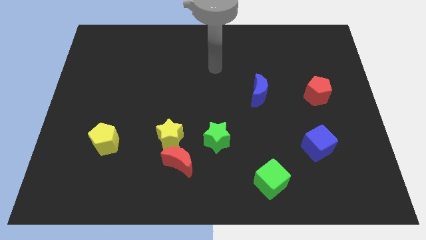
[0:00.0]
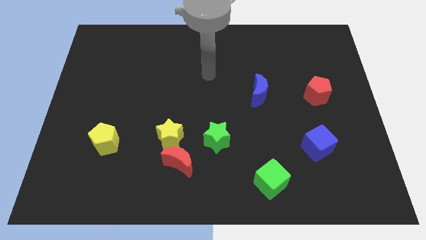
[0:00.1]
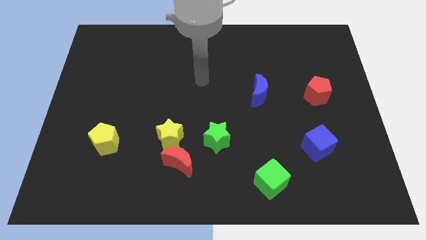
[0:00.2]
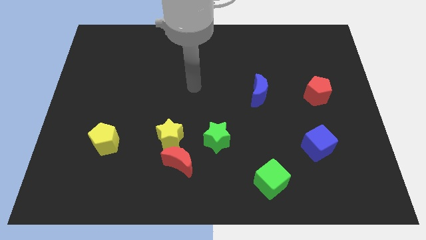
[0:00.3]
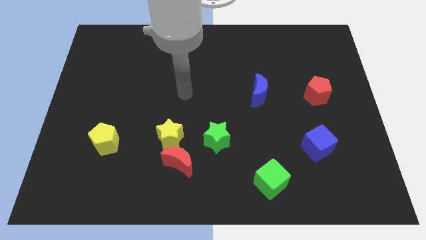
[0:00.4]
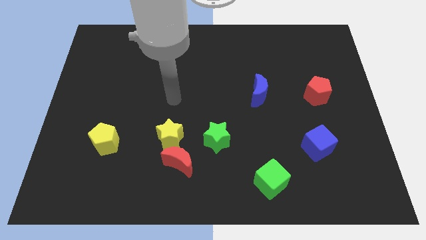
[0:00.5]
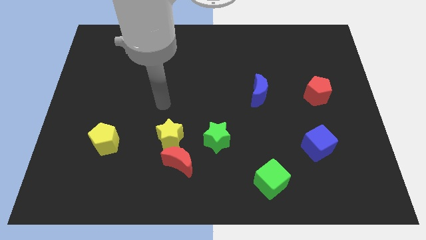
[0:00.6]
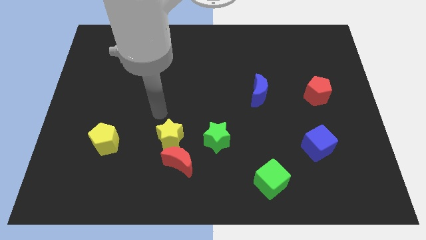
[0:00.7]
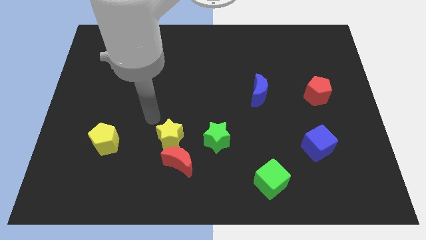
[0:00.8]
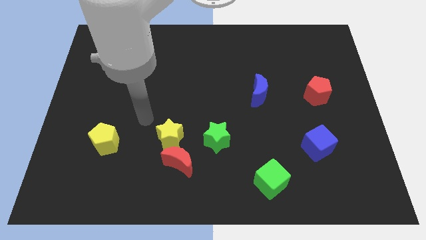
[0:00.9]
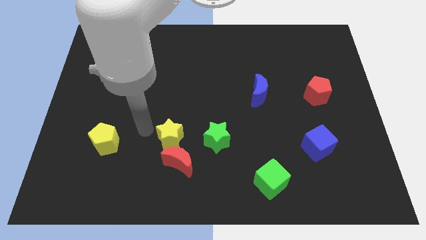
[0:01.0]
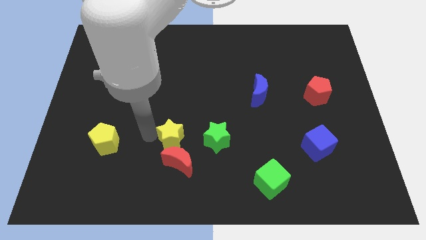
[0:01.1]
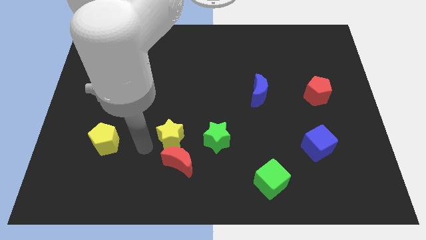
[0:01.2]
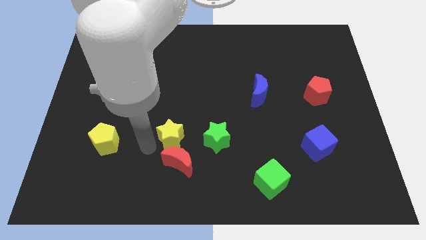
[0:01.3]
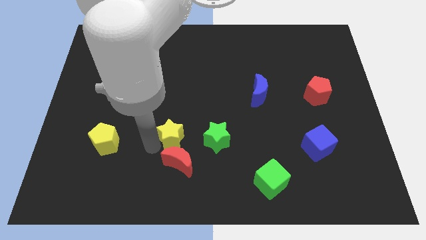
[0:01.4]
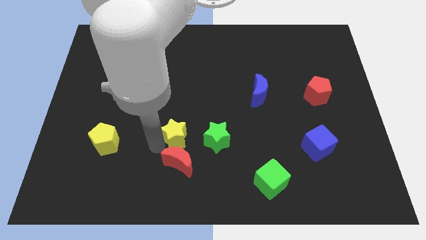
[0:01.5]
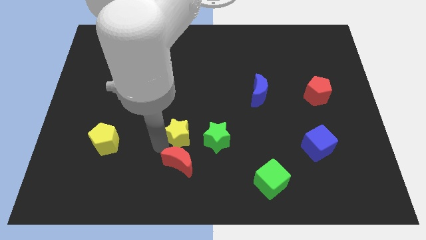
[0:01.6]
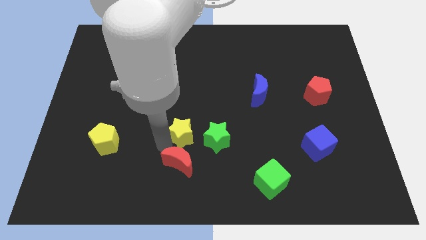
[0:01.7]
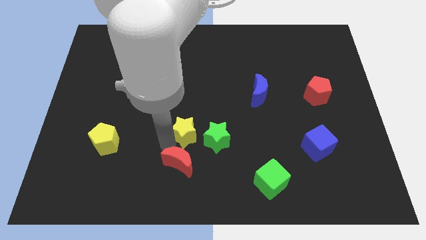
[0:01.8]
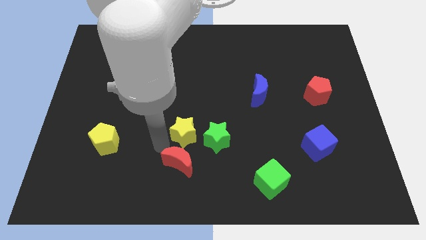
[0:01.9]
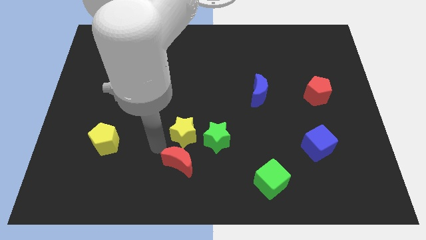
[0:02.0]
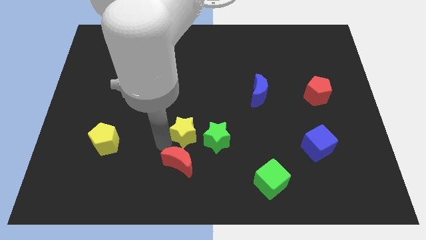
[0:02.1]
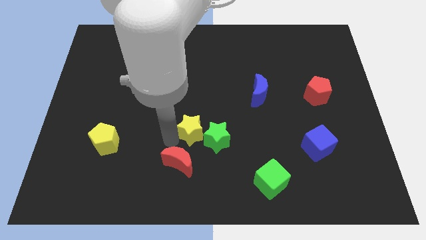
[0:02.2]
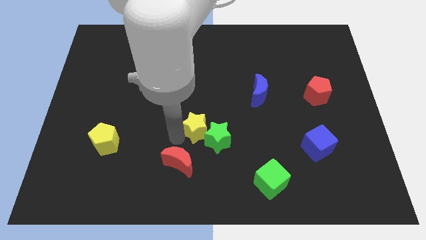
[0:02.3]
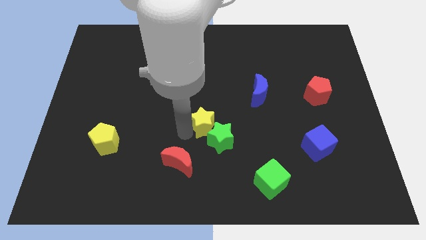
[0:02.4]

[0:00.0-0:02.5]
move the yellow star a little right

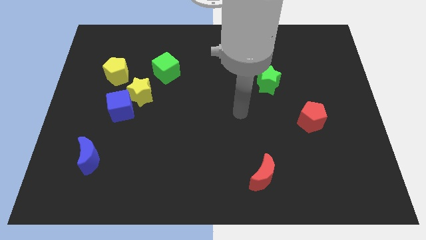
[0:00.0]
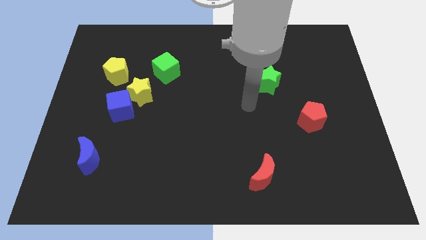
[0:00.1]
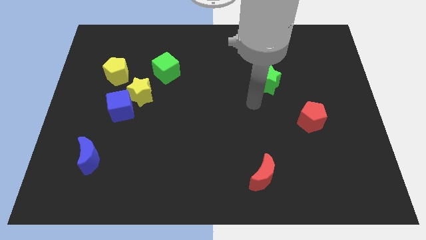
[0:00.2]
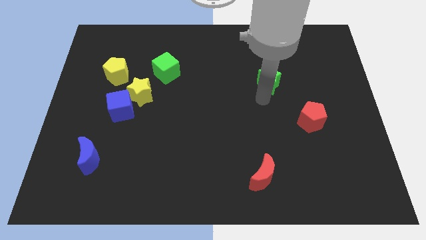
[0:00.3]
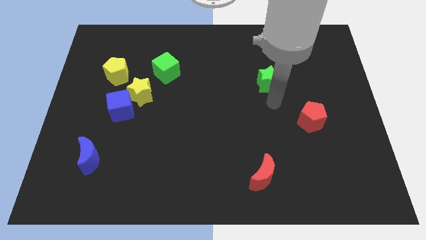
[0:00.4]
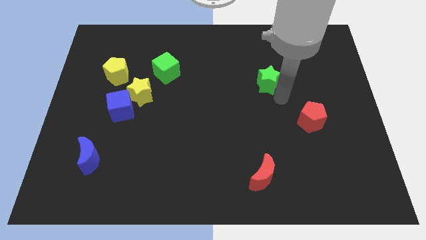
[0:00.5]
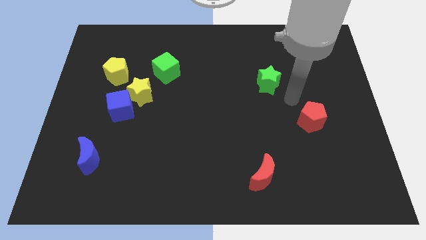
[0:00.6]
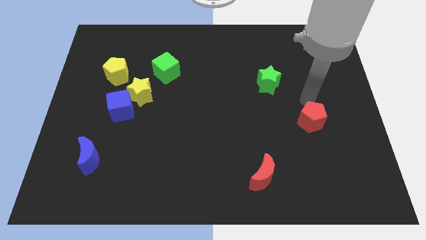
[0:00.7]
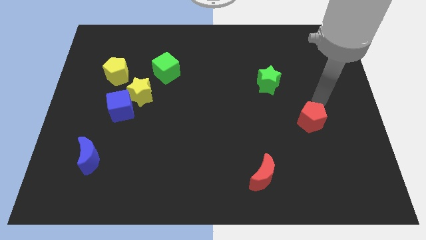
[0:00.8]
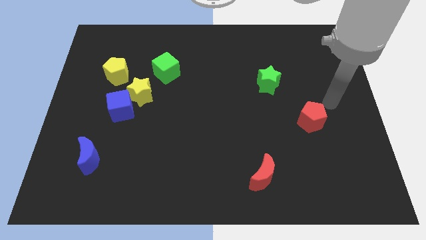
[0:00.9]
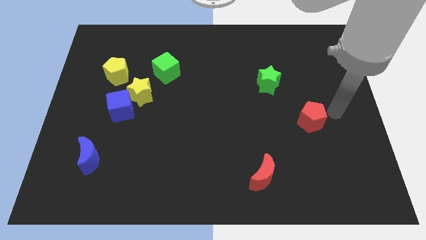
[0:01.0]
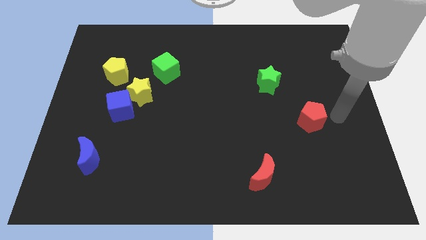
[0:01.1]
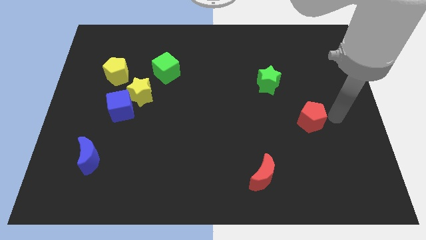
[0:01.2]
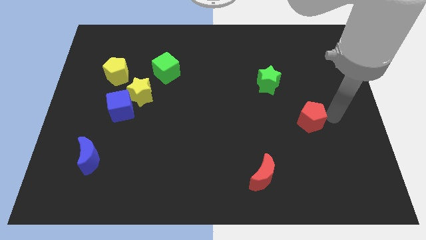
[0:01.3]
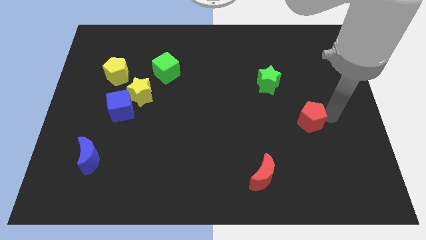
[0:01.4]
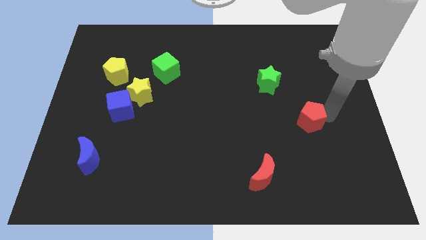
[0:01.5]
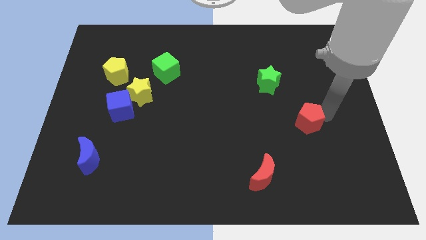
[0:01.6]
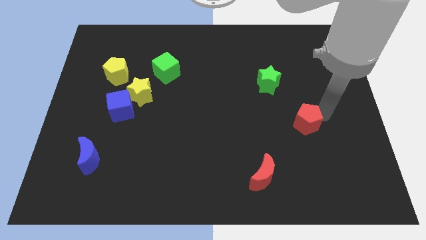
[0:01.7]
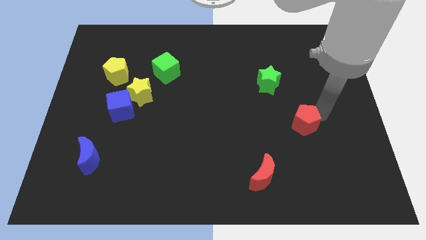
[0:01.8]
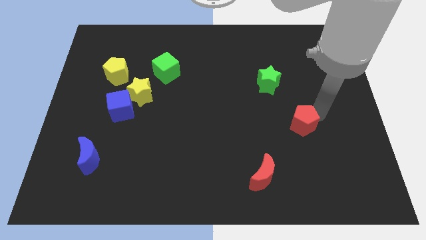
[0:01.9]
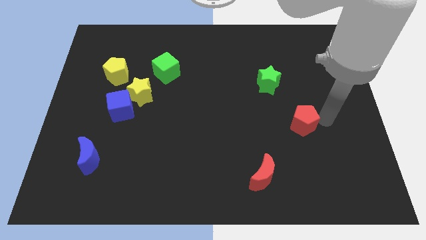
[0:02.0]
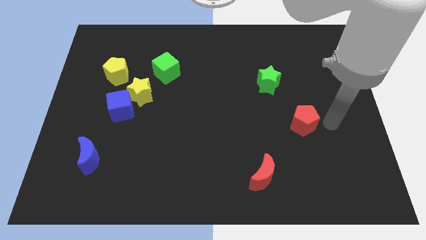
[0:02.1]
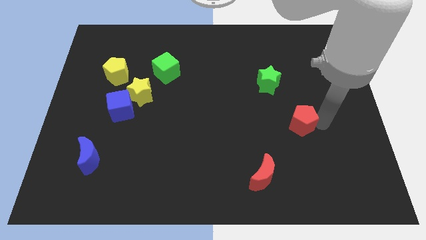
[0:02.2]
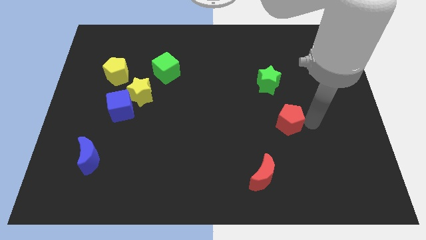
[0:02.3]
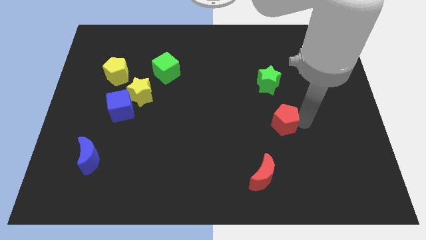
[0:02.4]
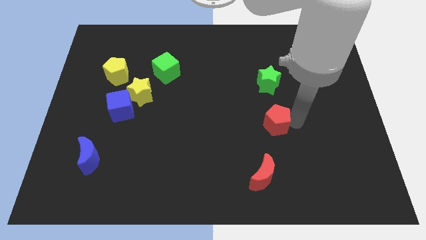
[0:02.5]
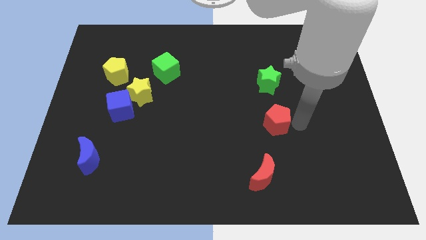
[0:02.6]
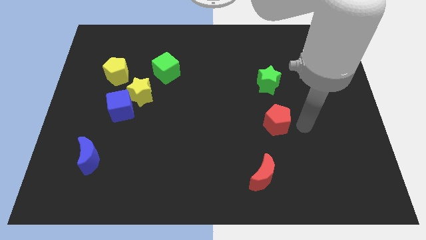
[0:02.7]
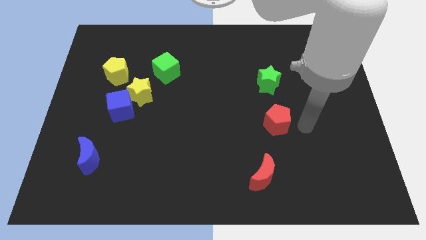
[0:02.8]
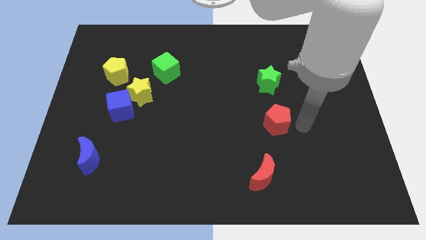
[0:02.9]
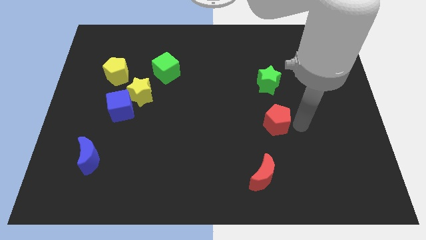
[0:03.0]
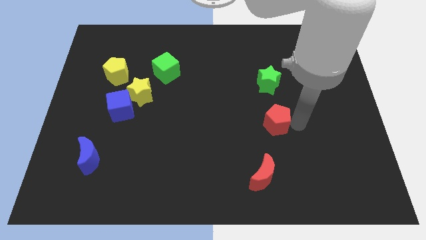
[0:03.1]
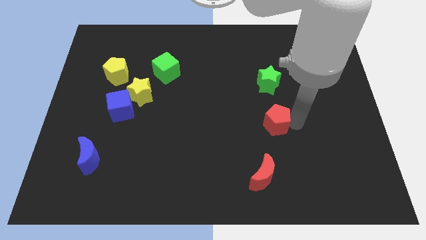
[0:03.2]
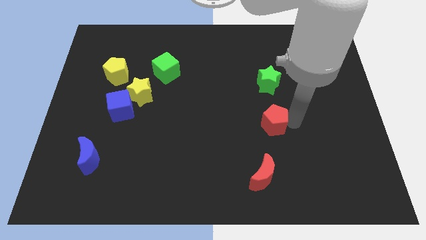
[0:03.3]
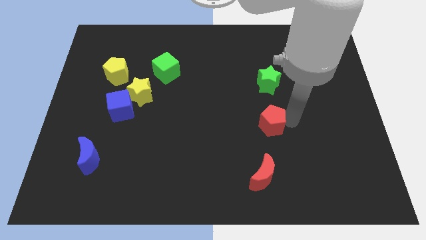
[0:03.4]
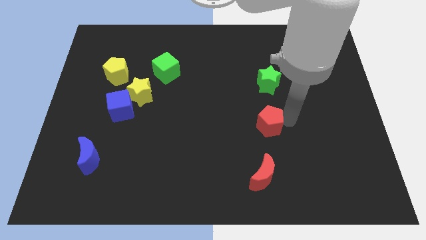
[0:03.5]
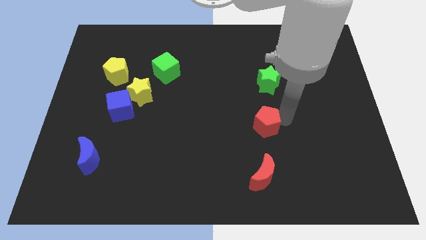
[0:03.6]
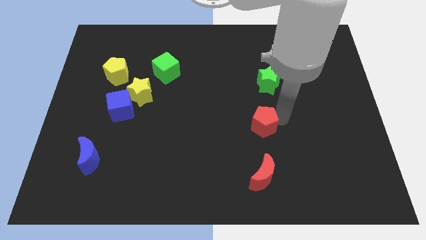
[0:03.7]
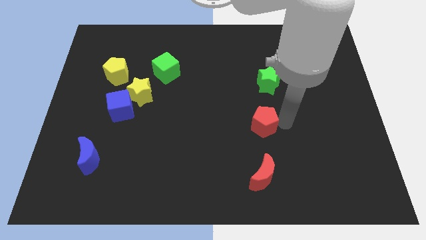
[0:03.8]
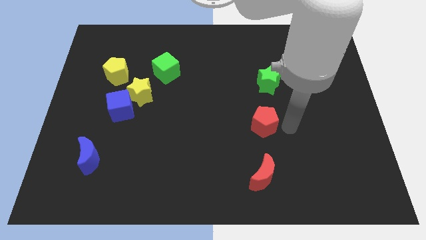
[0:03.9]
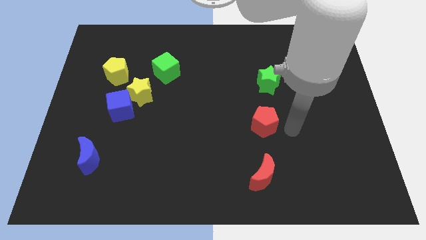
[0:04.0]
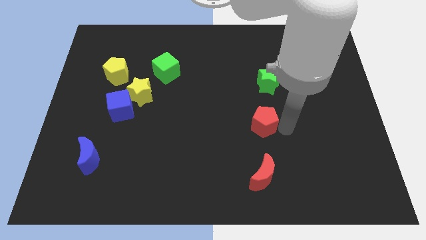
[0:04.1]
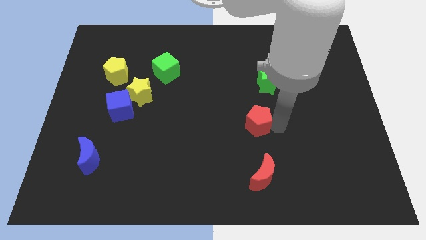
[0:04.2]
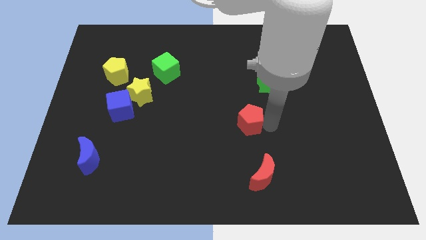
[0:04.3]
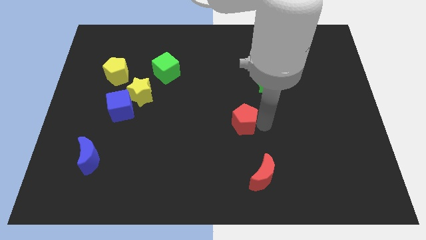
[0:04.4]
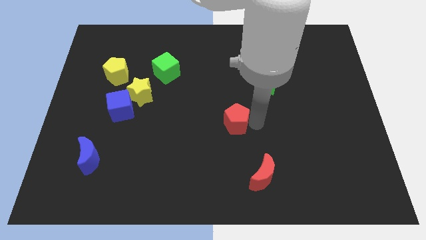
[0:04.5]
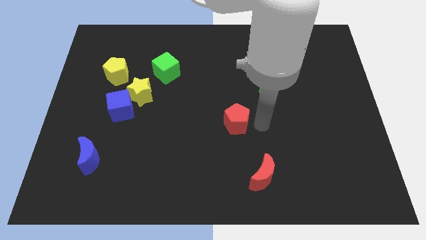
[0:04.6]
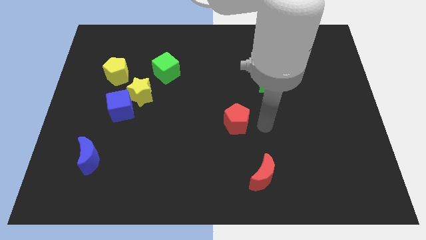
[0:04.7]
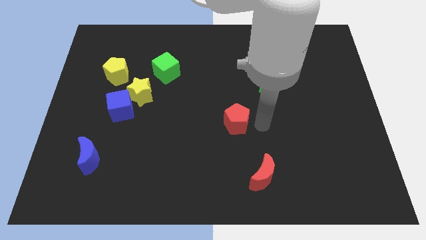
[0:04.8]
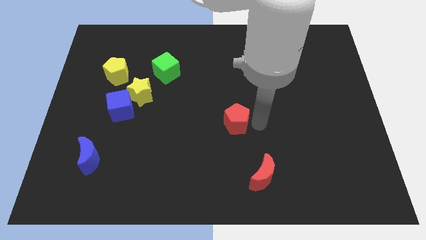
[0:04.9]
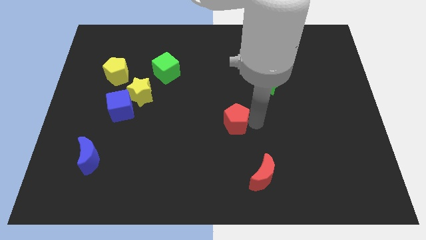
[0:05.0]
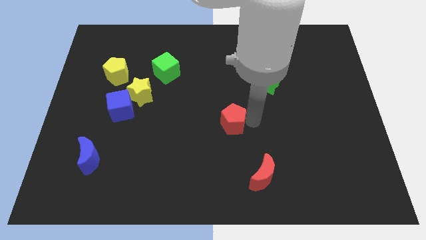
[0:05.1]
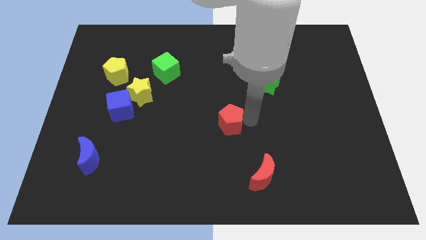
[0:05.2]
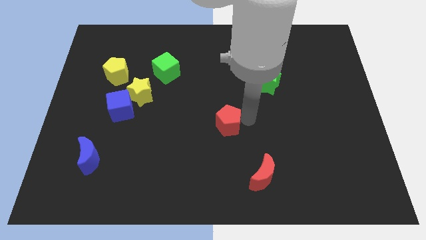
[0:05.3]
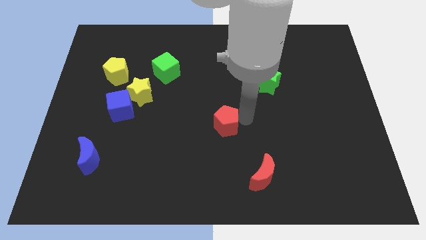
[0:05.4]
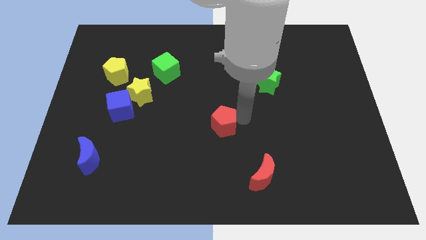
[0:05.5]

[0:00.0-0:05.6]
slide the red pentagon to the left
